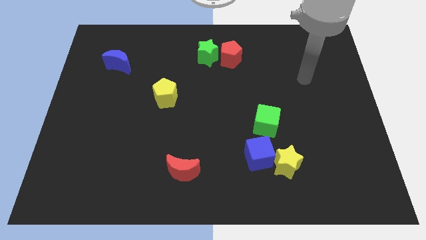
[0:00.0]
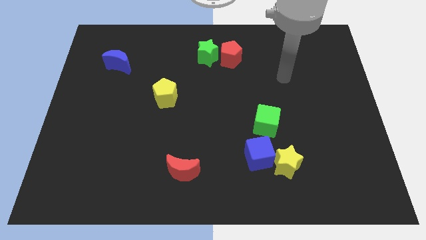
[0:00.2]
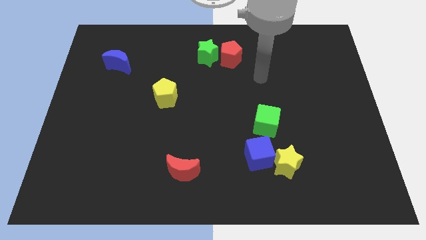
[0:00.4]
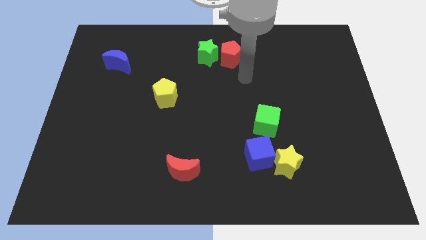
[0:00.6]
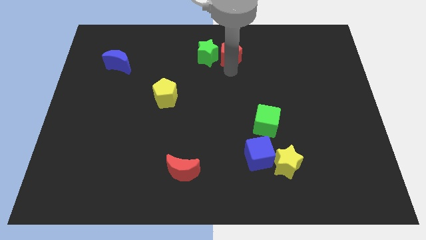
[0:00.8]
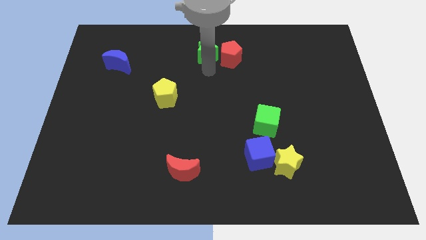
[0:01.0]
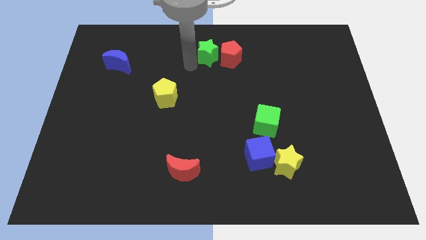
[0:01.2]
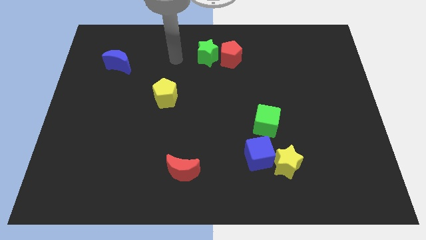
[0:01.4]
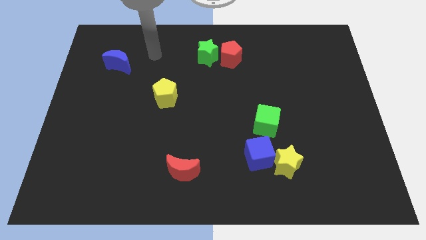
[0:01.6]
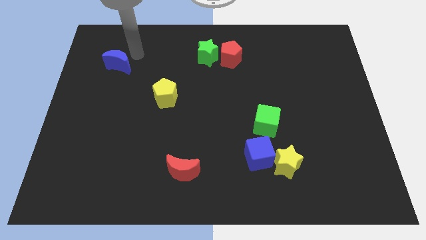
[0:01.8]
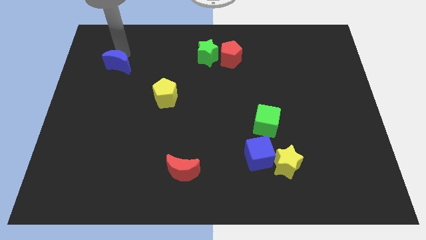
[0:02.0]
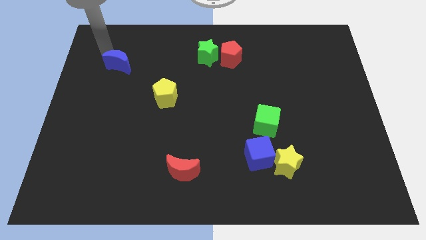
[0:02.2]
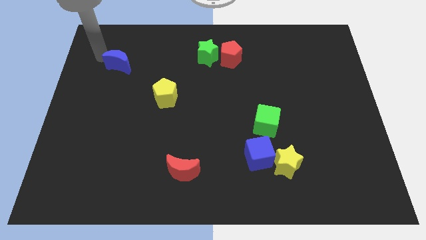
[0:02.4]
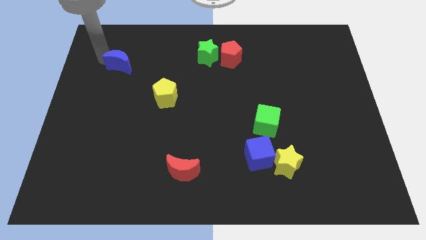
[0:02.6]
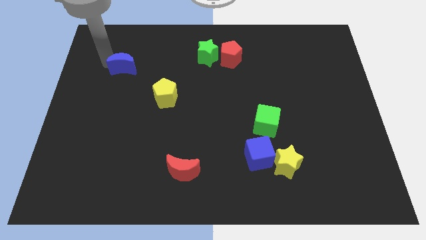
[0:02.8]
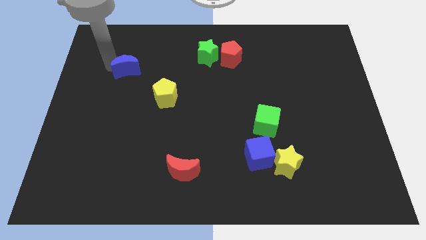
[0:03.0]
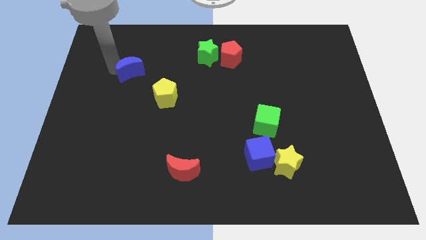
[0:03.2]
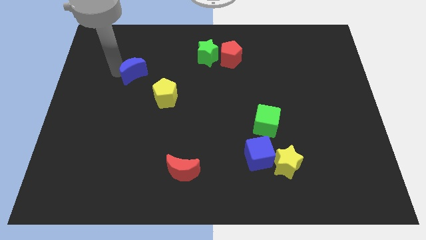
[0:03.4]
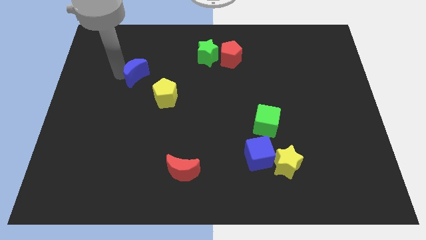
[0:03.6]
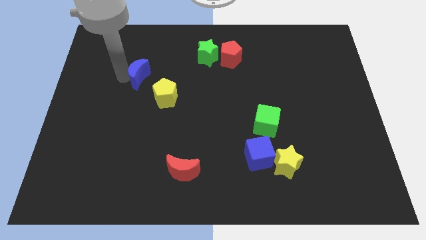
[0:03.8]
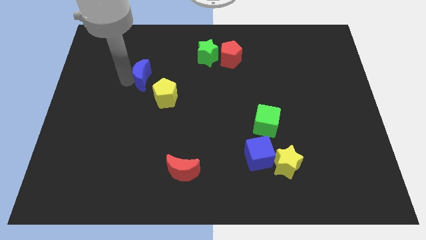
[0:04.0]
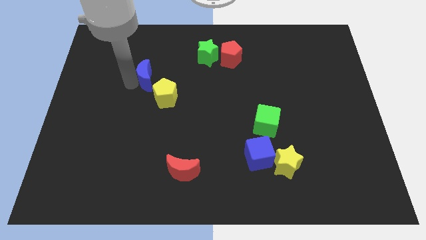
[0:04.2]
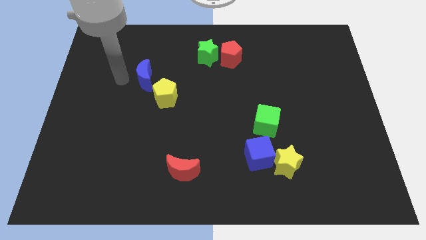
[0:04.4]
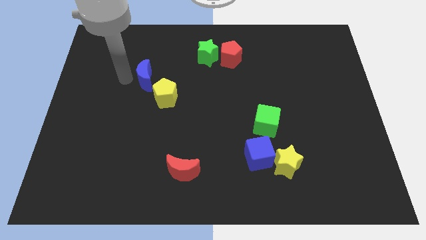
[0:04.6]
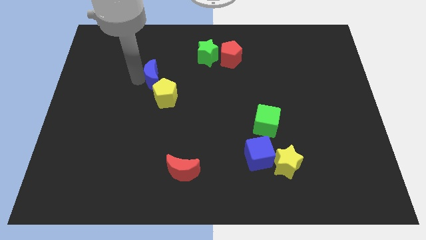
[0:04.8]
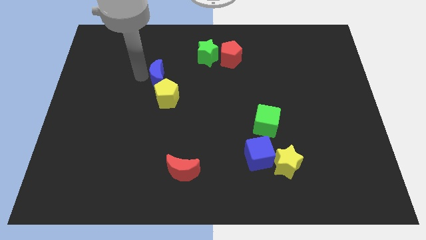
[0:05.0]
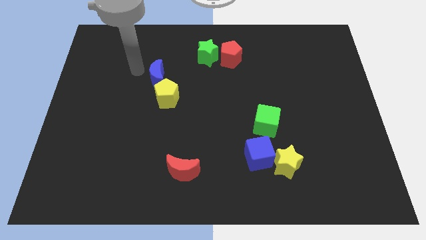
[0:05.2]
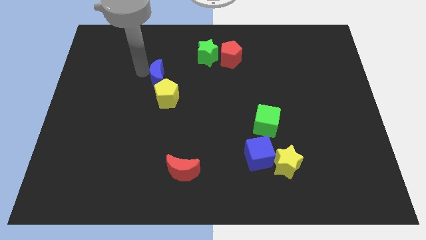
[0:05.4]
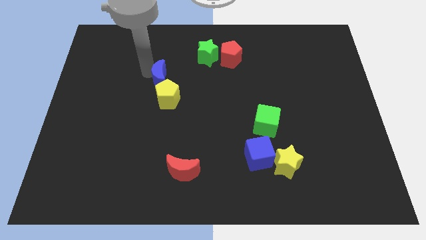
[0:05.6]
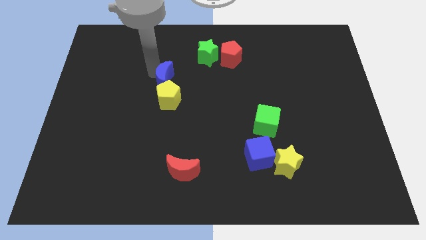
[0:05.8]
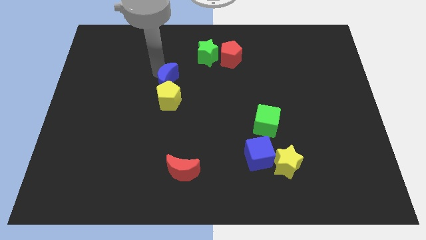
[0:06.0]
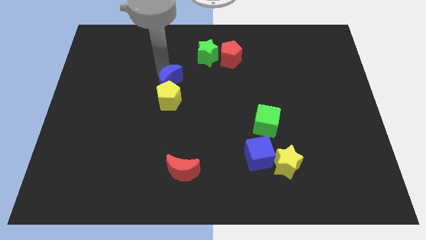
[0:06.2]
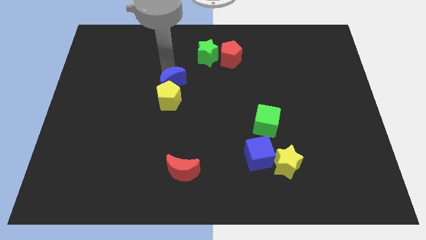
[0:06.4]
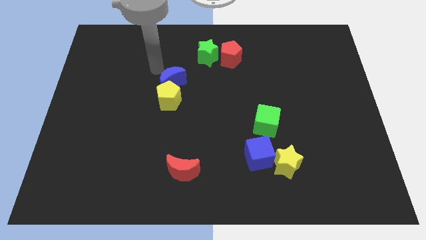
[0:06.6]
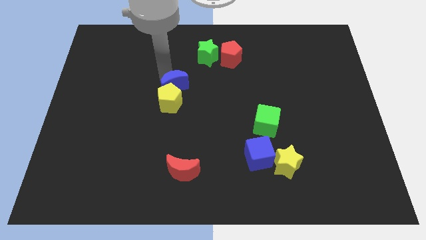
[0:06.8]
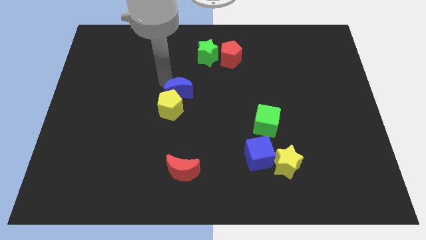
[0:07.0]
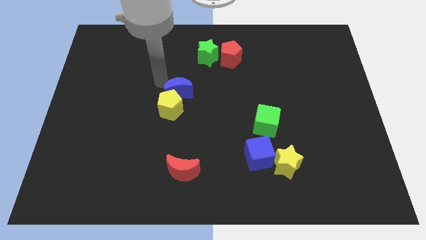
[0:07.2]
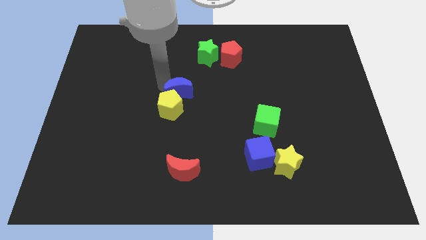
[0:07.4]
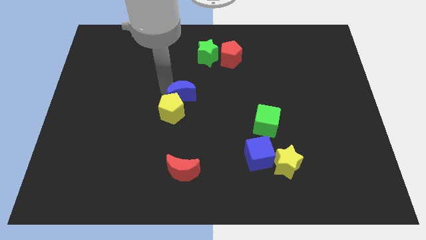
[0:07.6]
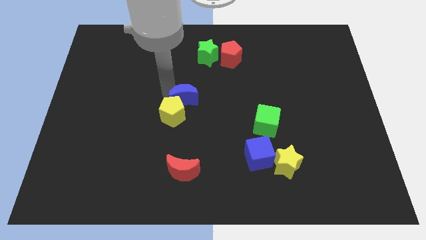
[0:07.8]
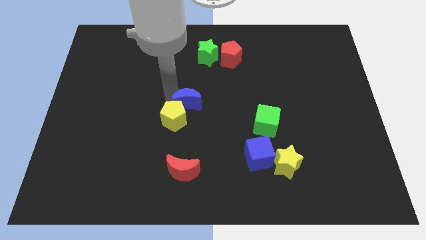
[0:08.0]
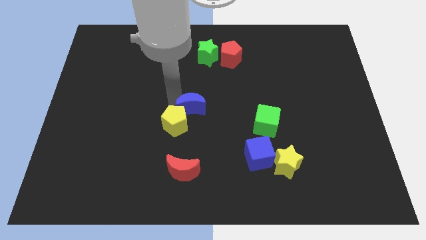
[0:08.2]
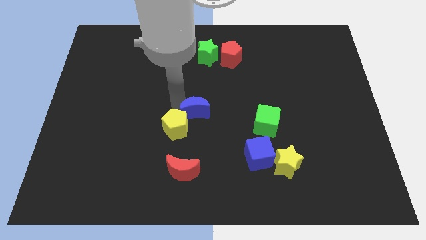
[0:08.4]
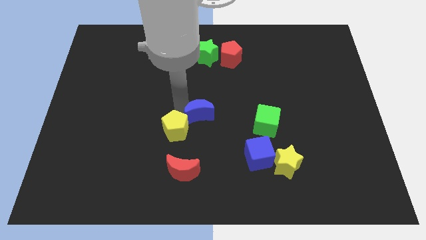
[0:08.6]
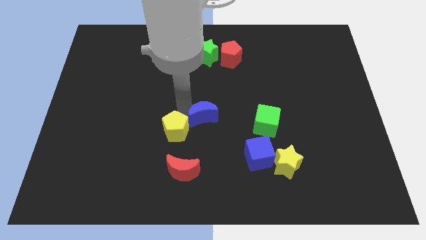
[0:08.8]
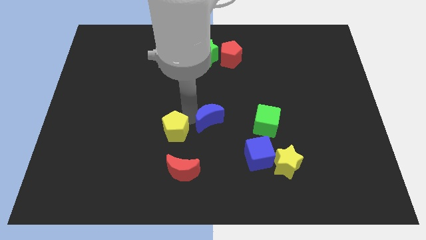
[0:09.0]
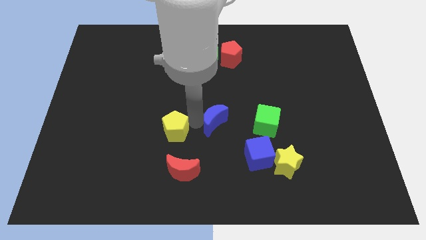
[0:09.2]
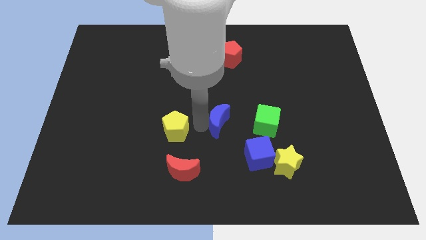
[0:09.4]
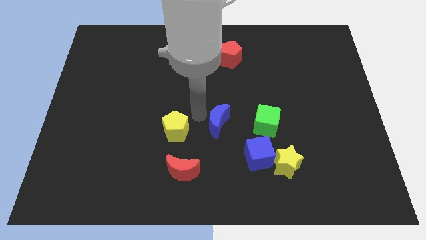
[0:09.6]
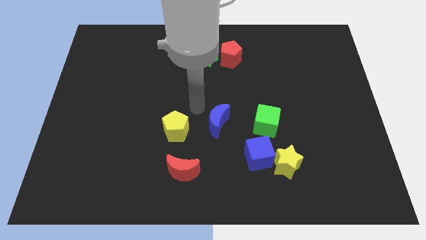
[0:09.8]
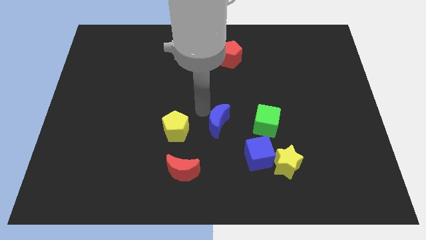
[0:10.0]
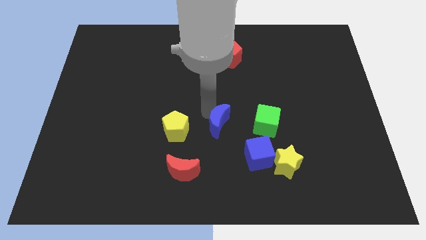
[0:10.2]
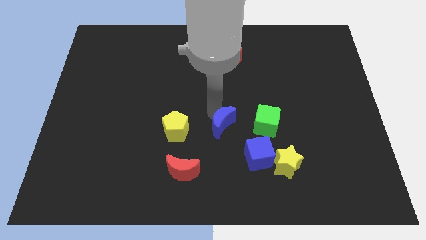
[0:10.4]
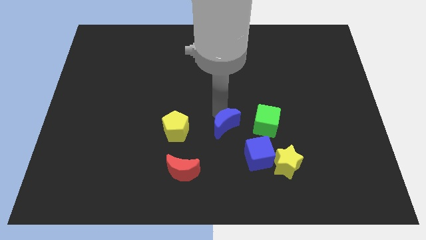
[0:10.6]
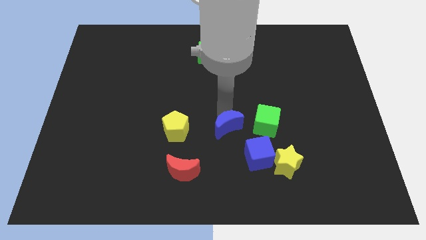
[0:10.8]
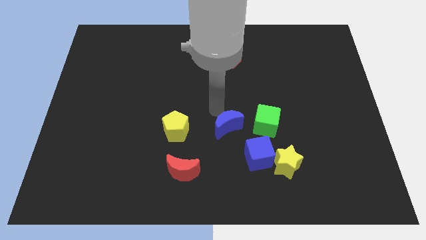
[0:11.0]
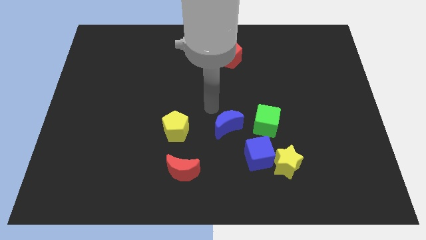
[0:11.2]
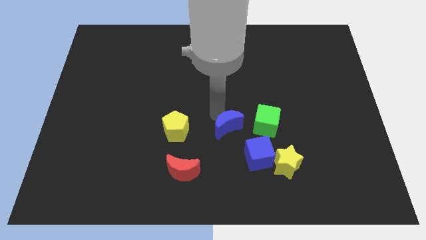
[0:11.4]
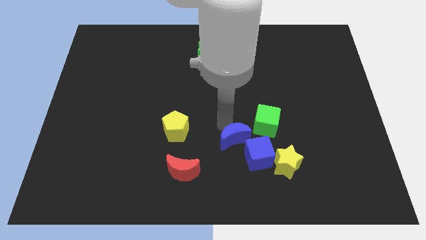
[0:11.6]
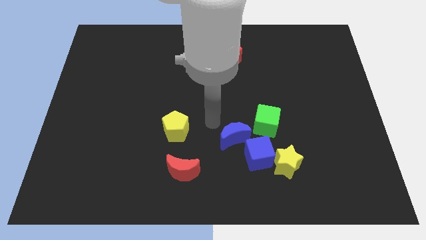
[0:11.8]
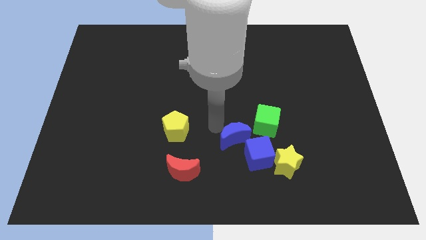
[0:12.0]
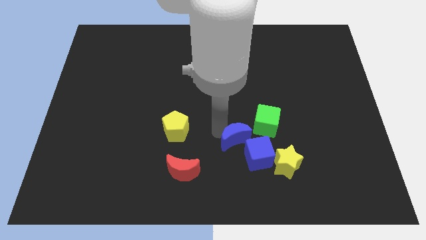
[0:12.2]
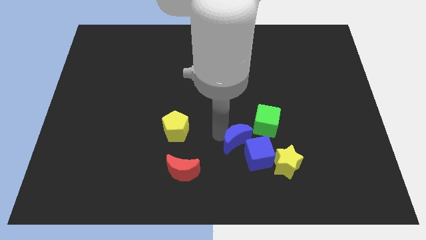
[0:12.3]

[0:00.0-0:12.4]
slide the blue moon to the blue cube
